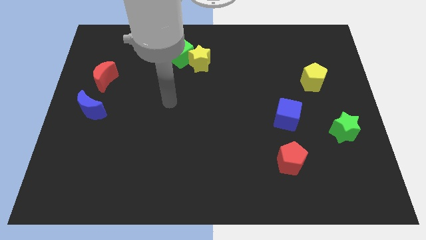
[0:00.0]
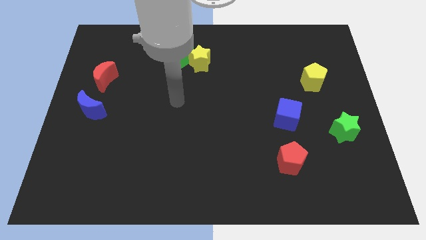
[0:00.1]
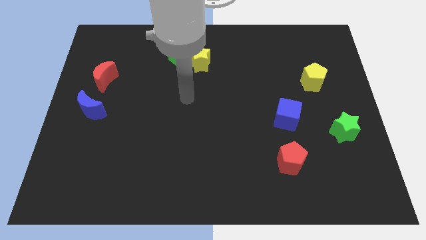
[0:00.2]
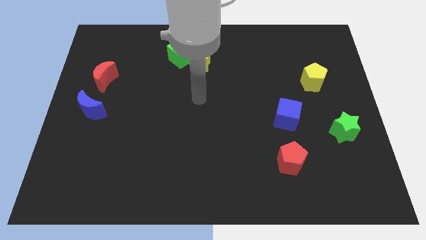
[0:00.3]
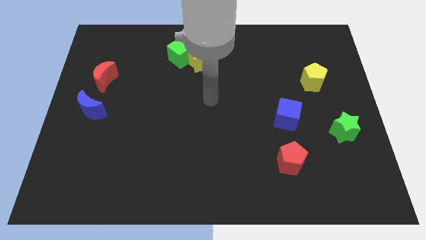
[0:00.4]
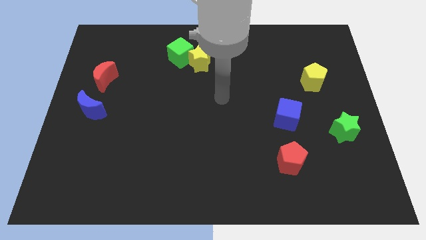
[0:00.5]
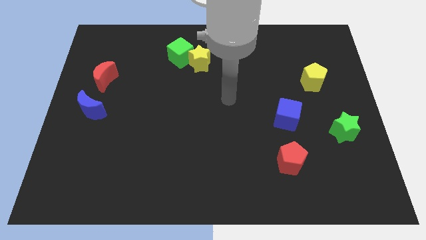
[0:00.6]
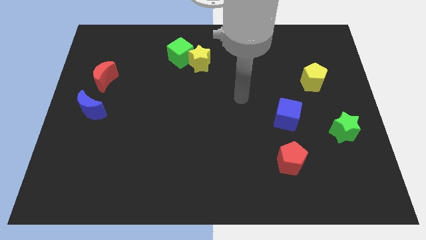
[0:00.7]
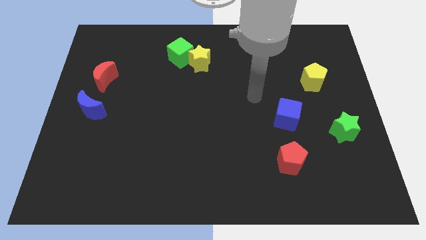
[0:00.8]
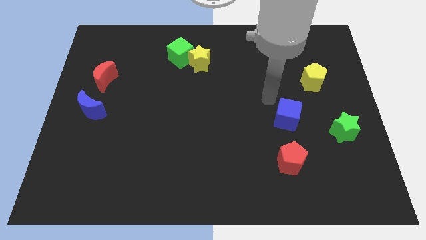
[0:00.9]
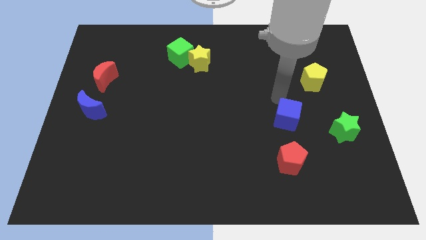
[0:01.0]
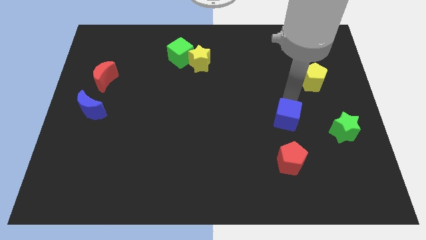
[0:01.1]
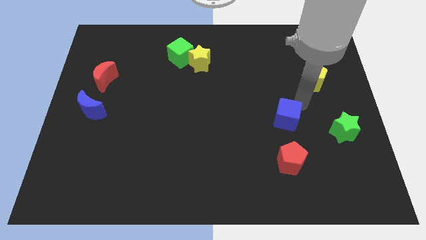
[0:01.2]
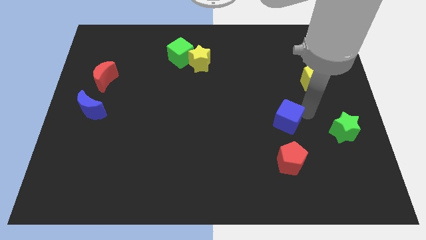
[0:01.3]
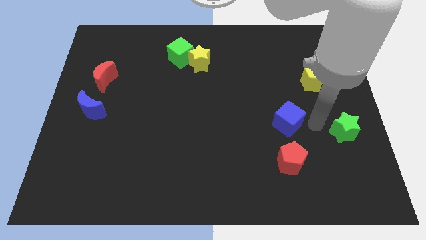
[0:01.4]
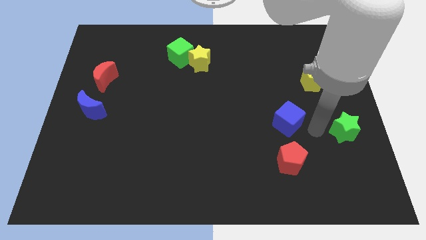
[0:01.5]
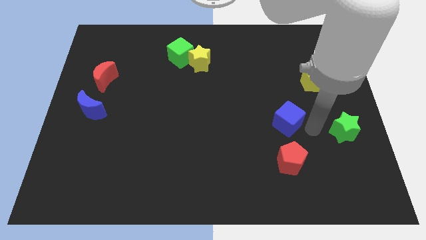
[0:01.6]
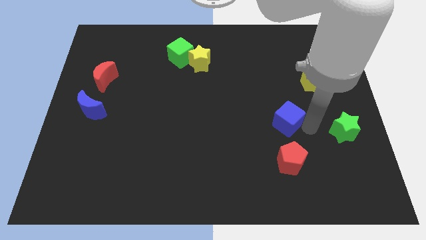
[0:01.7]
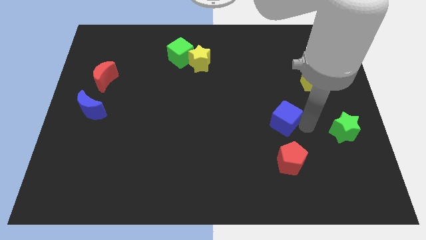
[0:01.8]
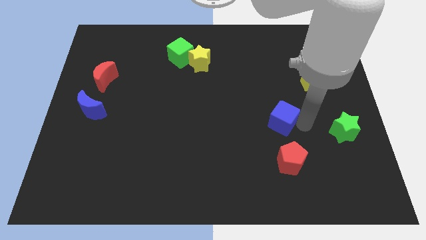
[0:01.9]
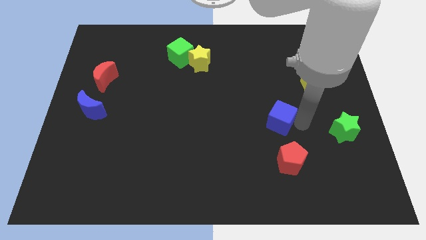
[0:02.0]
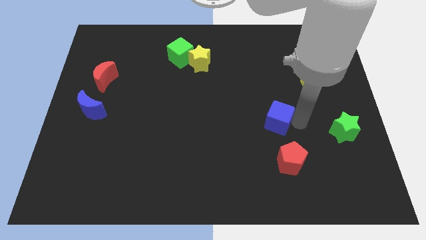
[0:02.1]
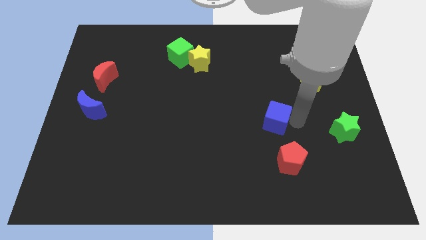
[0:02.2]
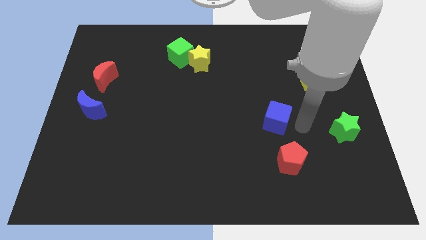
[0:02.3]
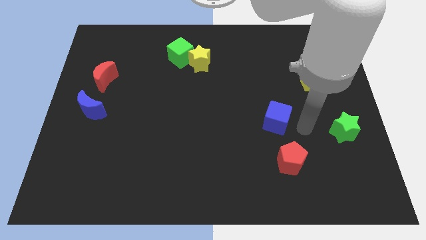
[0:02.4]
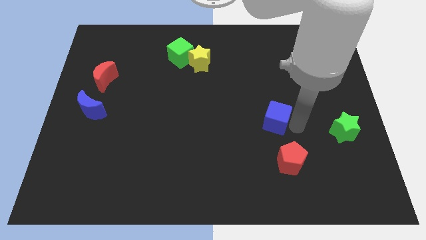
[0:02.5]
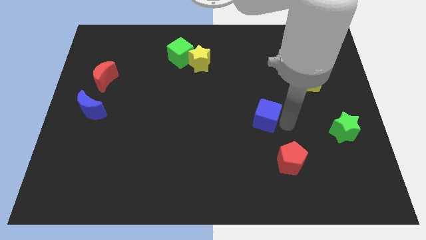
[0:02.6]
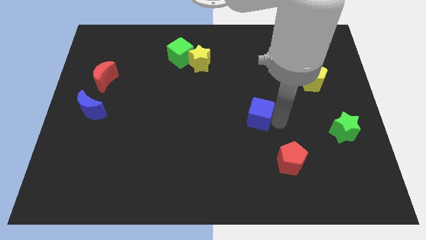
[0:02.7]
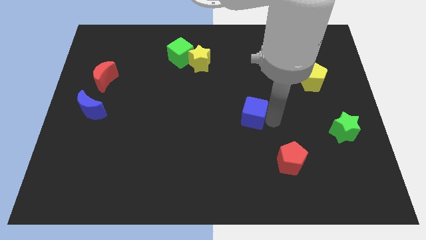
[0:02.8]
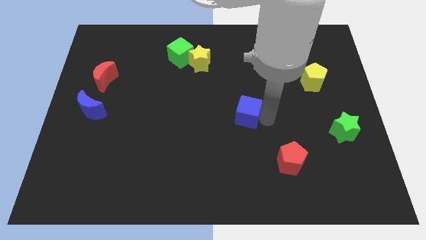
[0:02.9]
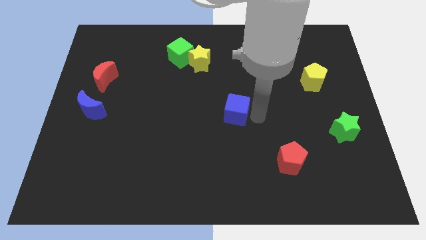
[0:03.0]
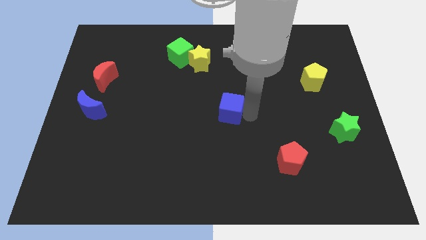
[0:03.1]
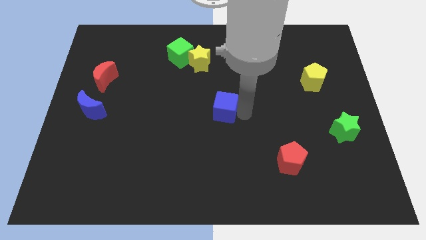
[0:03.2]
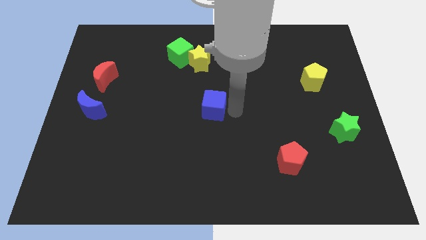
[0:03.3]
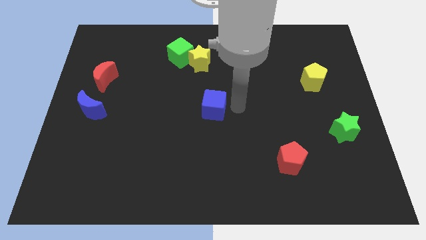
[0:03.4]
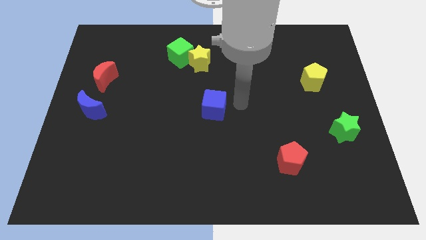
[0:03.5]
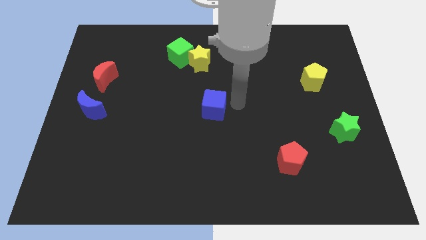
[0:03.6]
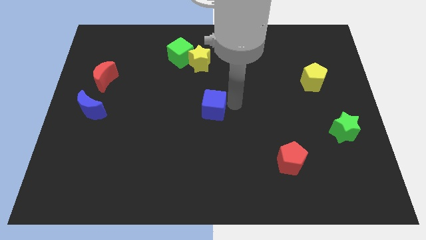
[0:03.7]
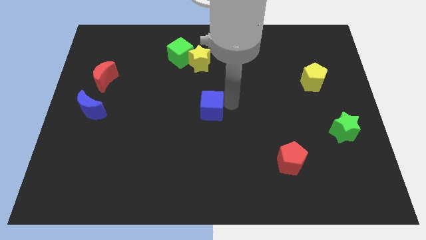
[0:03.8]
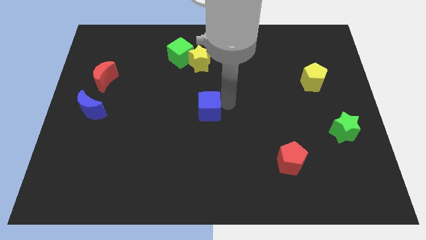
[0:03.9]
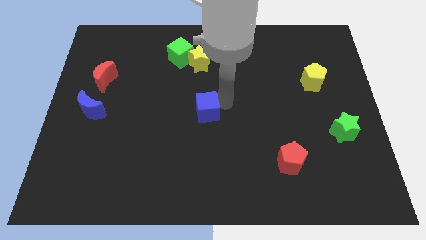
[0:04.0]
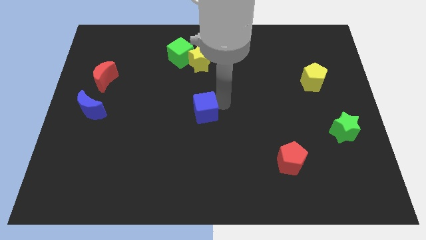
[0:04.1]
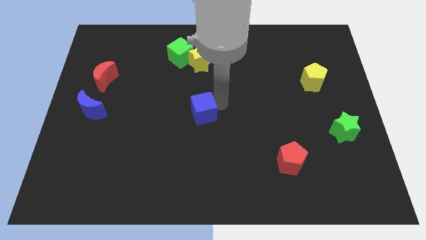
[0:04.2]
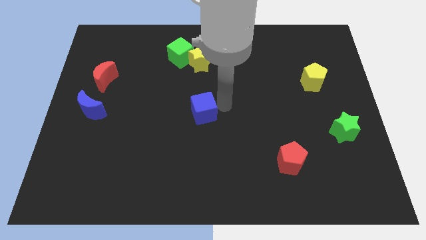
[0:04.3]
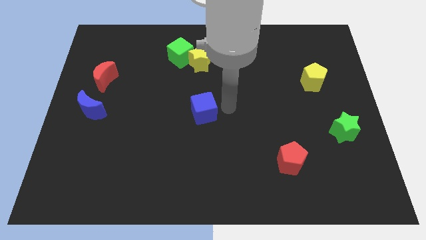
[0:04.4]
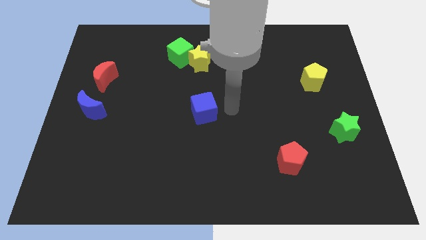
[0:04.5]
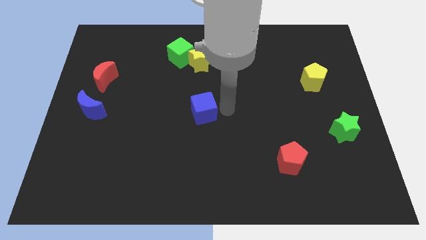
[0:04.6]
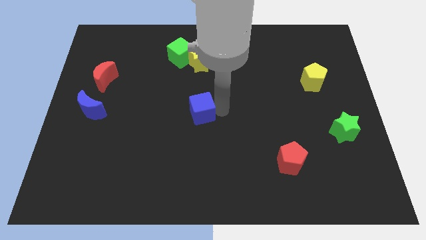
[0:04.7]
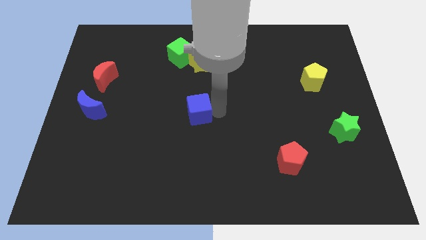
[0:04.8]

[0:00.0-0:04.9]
slide the blue cube left

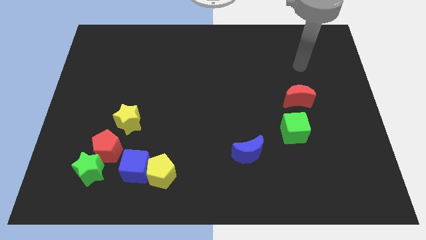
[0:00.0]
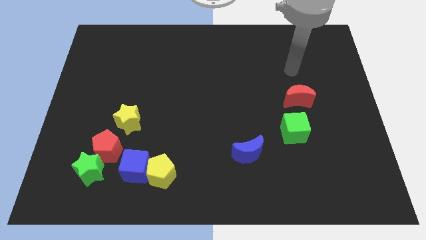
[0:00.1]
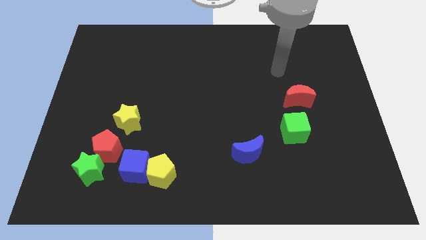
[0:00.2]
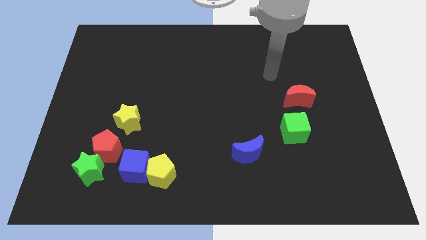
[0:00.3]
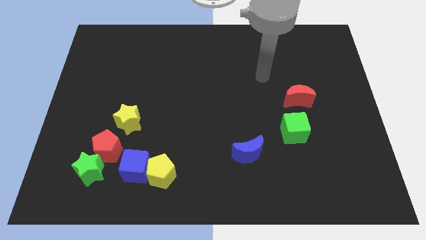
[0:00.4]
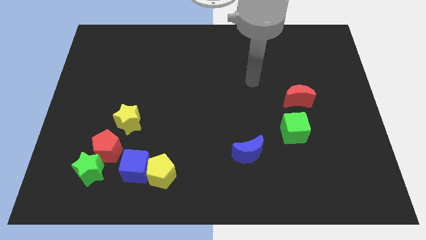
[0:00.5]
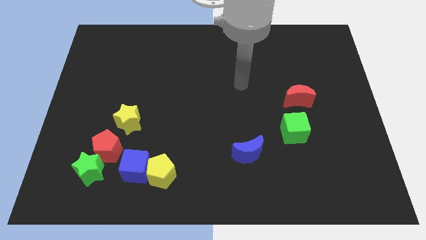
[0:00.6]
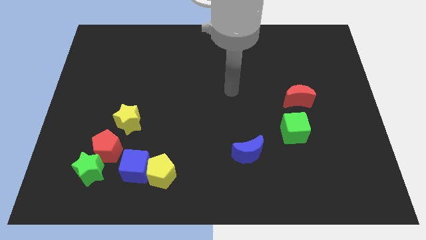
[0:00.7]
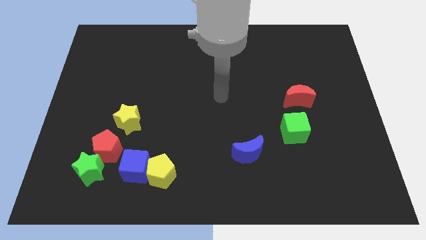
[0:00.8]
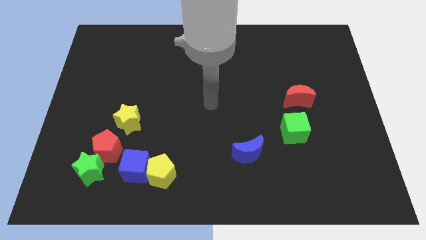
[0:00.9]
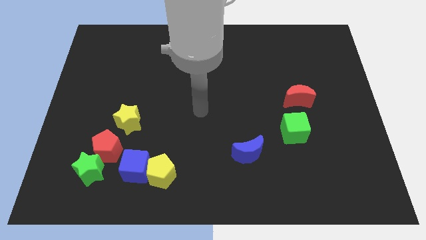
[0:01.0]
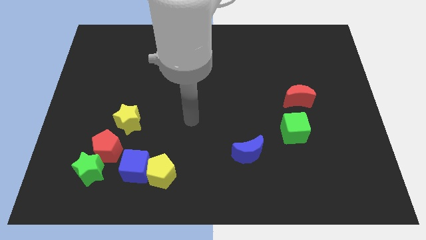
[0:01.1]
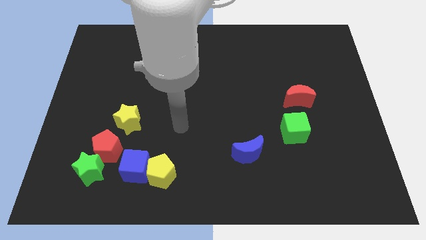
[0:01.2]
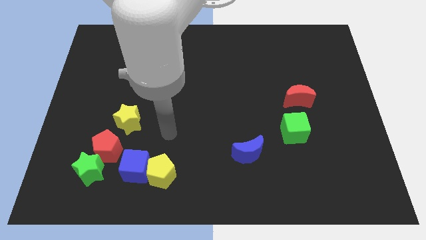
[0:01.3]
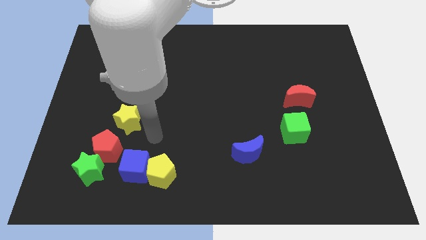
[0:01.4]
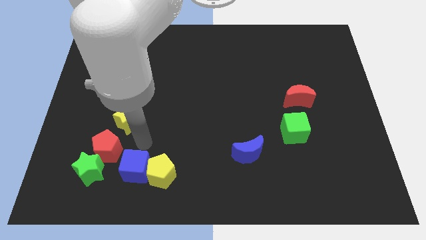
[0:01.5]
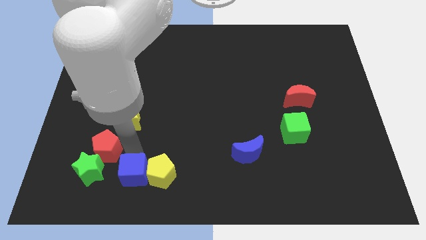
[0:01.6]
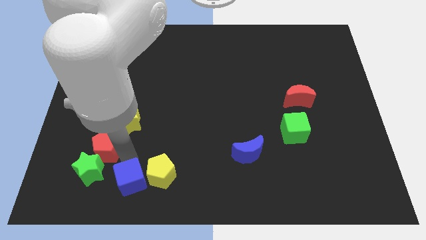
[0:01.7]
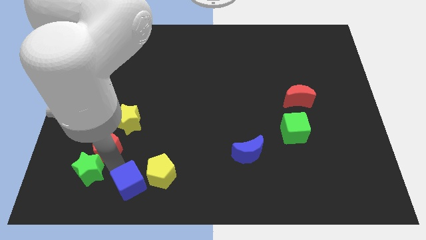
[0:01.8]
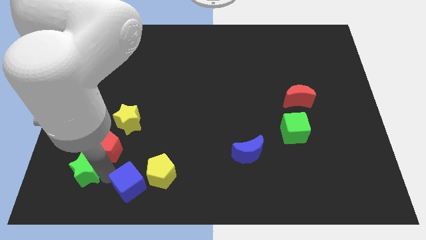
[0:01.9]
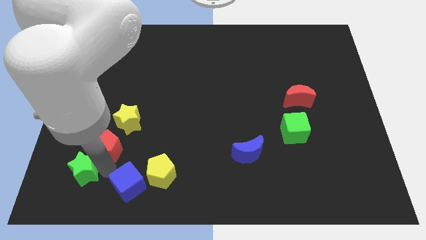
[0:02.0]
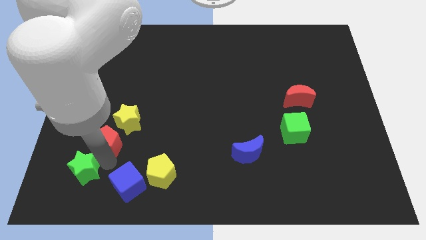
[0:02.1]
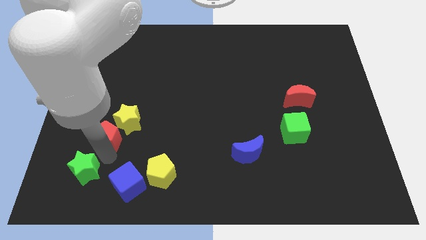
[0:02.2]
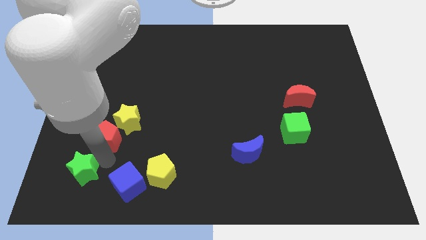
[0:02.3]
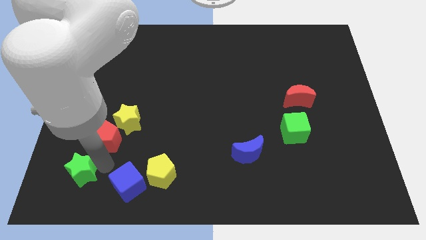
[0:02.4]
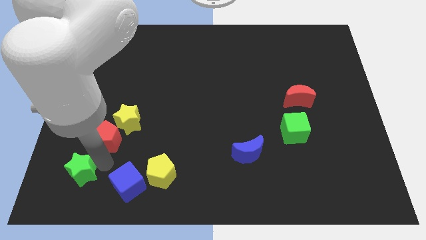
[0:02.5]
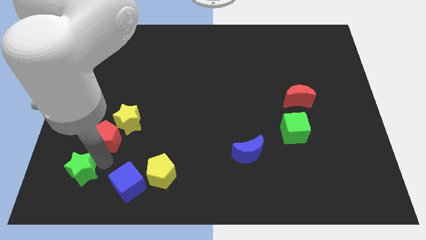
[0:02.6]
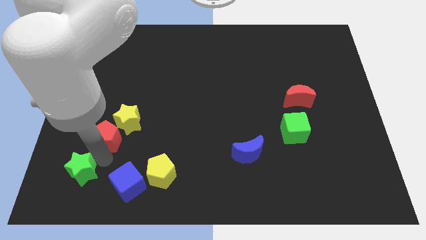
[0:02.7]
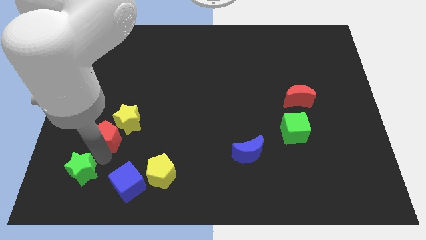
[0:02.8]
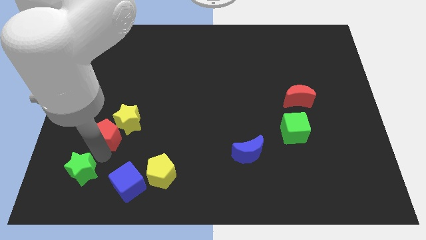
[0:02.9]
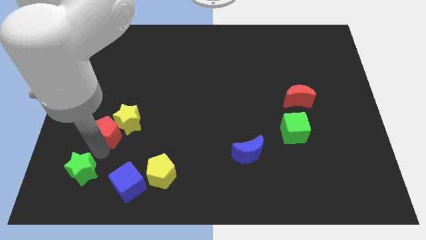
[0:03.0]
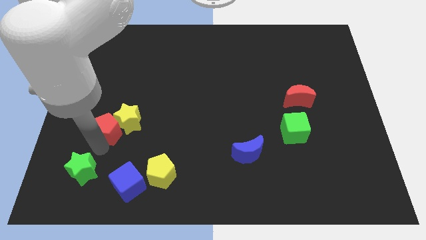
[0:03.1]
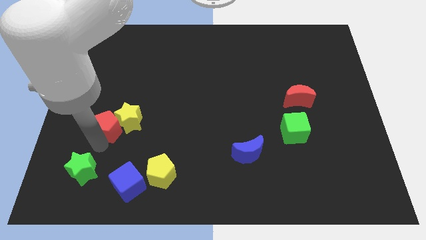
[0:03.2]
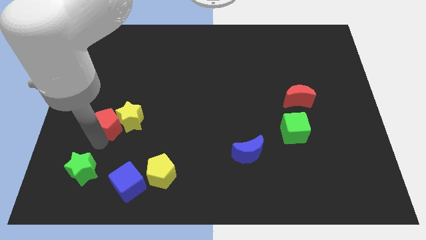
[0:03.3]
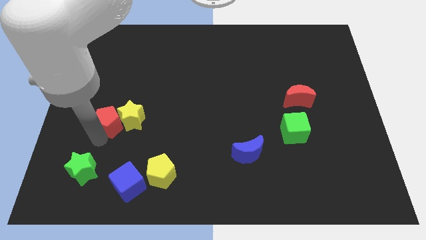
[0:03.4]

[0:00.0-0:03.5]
slightly push the red pentagon upwards
